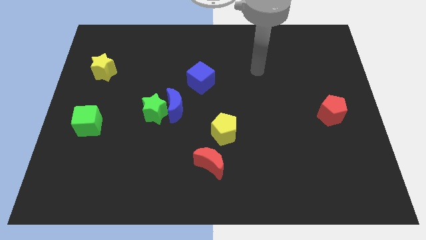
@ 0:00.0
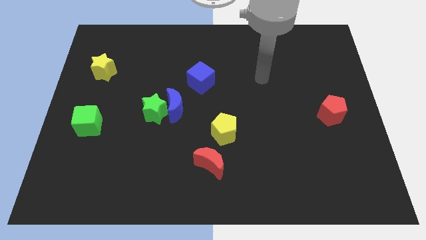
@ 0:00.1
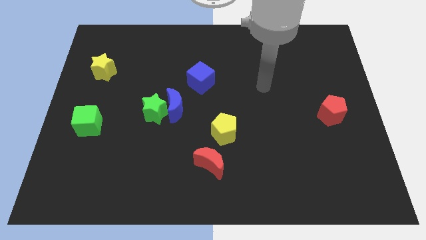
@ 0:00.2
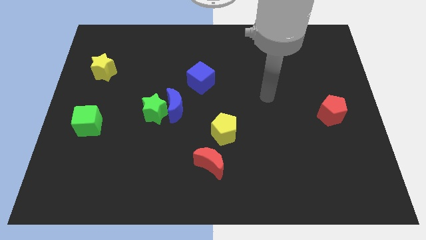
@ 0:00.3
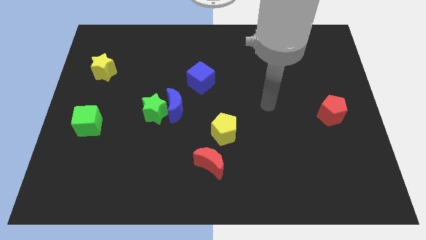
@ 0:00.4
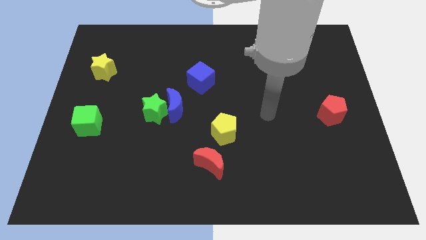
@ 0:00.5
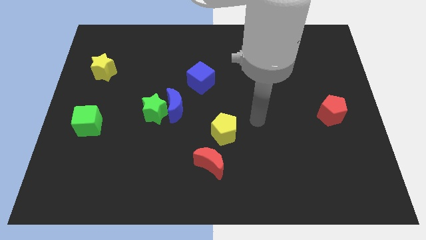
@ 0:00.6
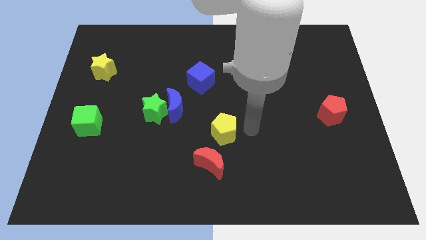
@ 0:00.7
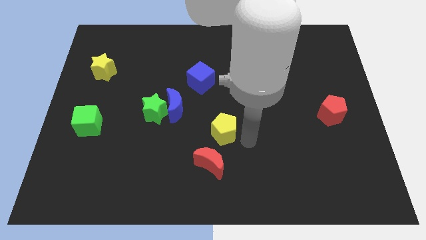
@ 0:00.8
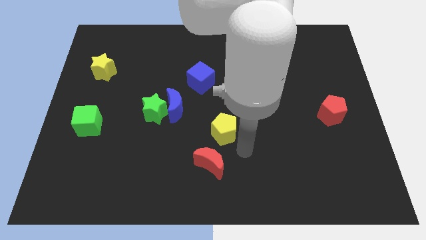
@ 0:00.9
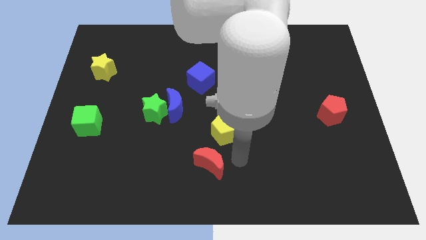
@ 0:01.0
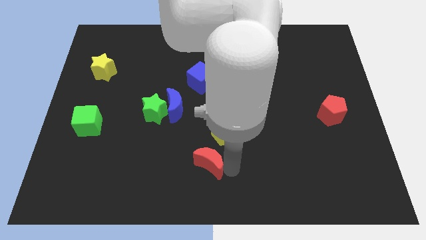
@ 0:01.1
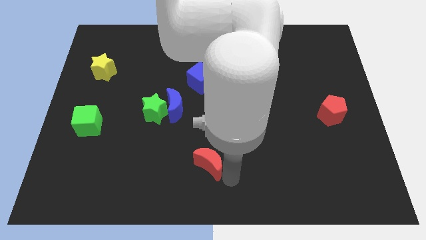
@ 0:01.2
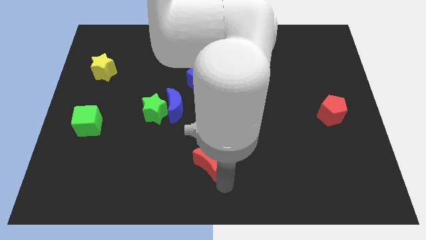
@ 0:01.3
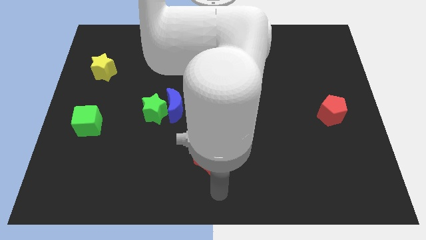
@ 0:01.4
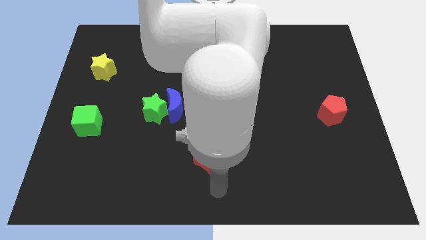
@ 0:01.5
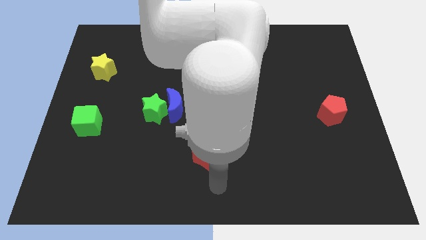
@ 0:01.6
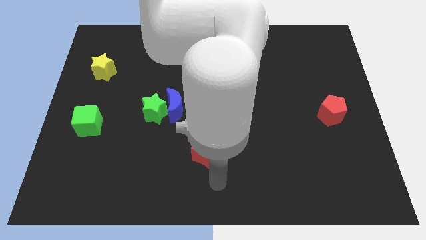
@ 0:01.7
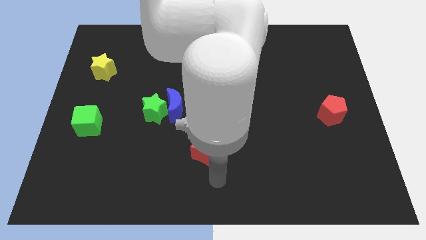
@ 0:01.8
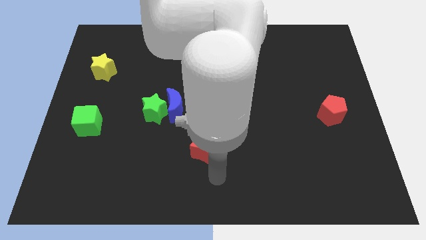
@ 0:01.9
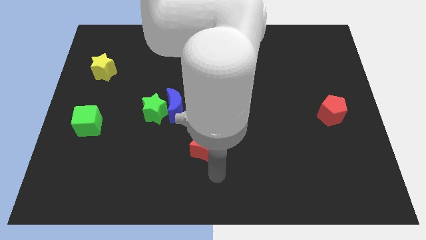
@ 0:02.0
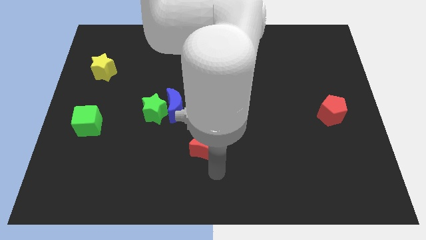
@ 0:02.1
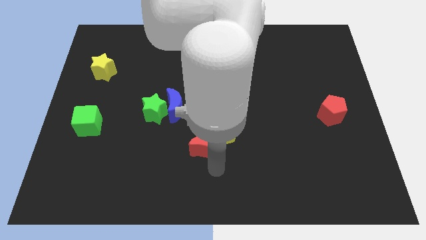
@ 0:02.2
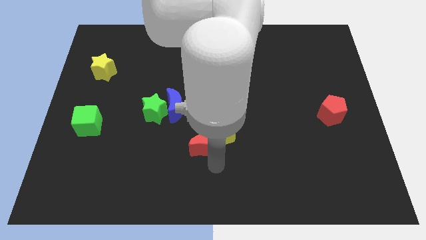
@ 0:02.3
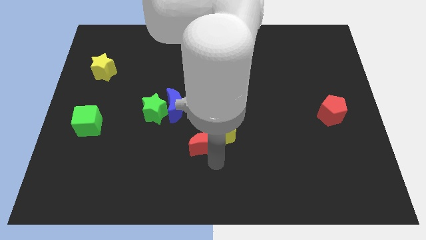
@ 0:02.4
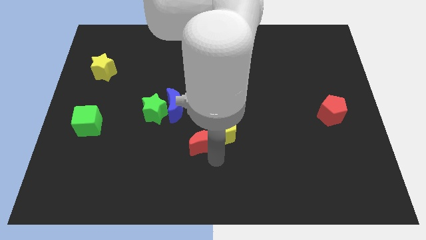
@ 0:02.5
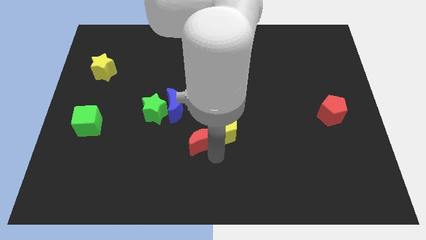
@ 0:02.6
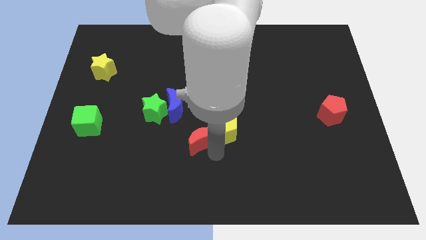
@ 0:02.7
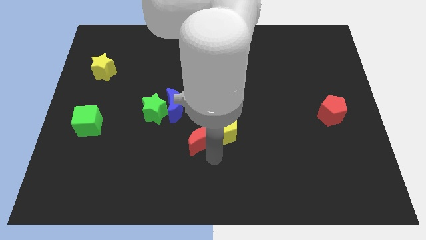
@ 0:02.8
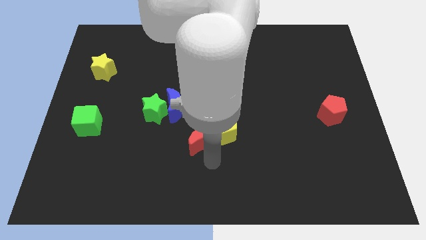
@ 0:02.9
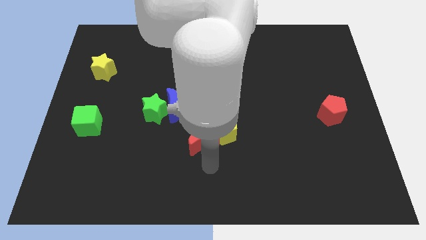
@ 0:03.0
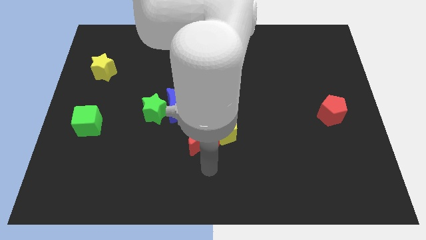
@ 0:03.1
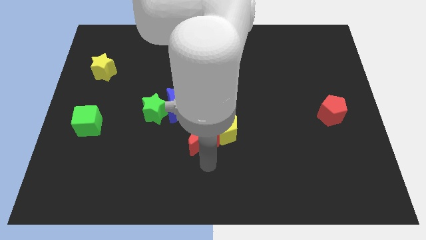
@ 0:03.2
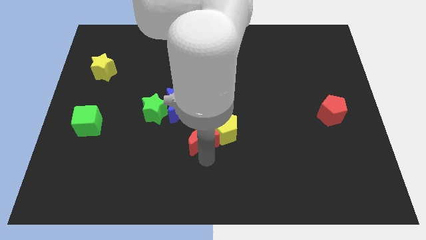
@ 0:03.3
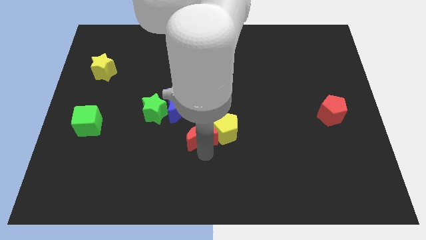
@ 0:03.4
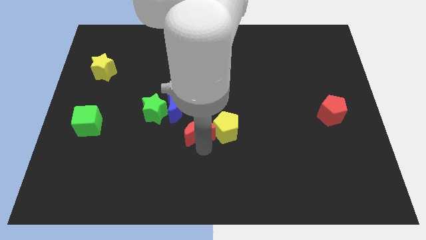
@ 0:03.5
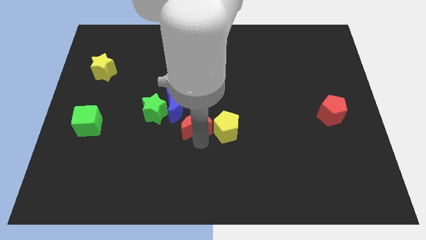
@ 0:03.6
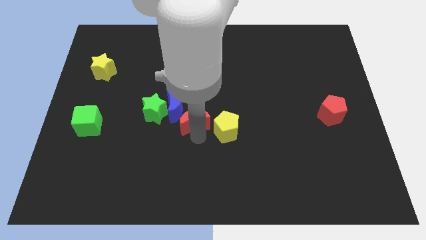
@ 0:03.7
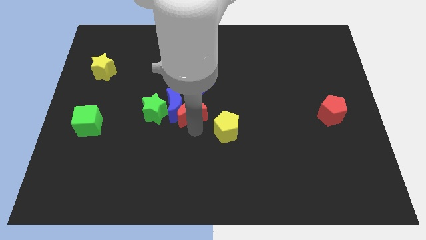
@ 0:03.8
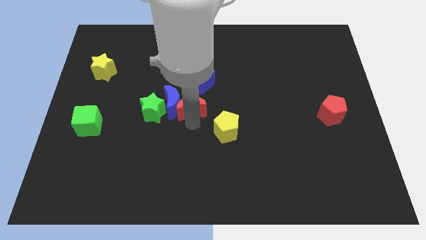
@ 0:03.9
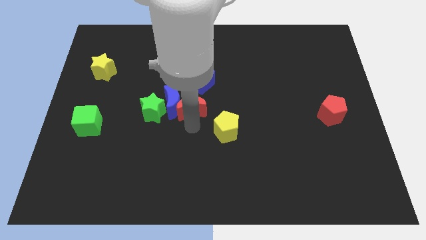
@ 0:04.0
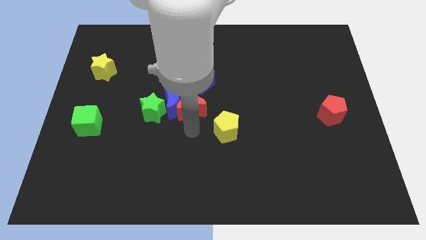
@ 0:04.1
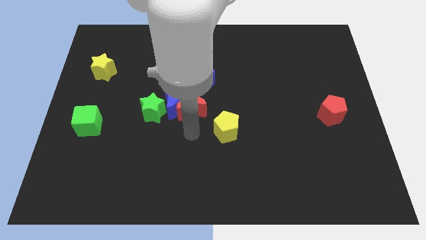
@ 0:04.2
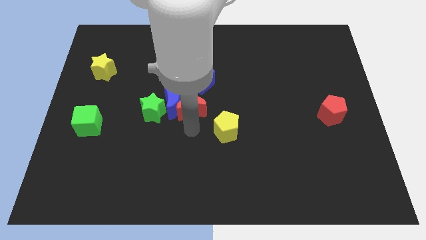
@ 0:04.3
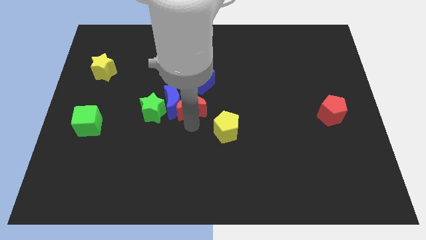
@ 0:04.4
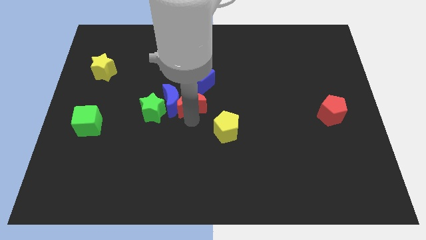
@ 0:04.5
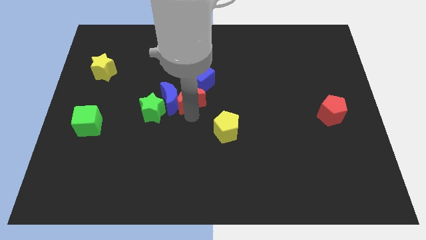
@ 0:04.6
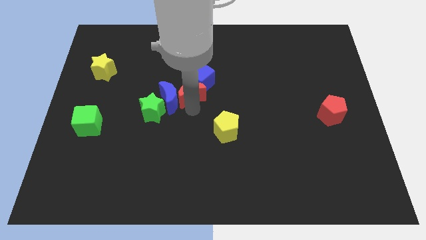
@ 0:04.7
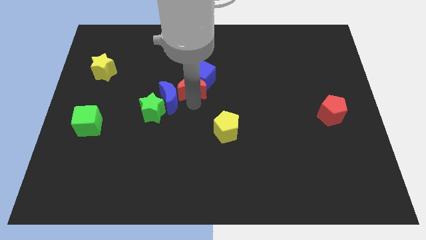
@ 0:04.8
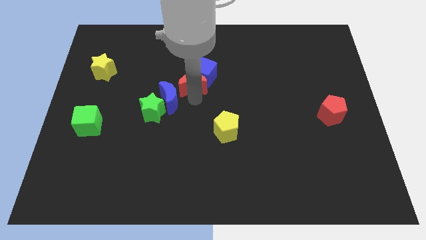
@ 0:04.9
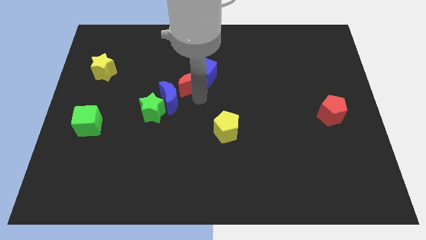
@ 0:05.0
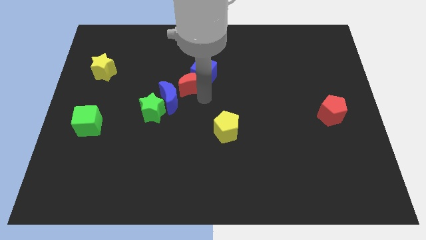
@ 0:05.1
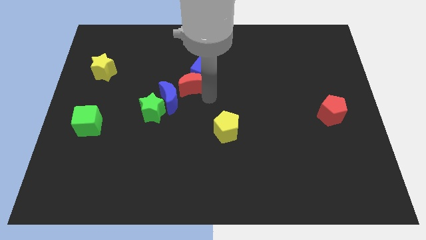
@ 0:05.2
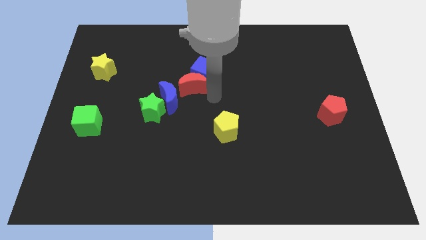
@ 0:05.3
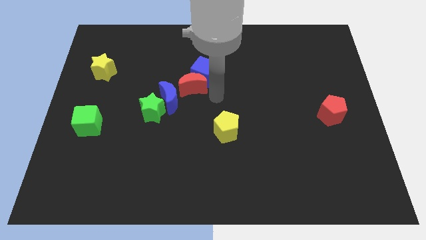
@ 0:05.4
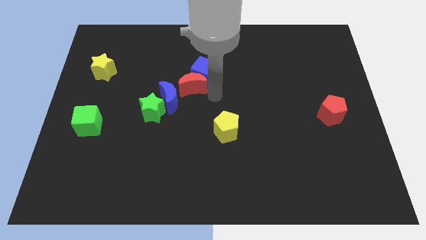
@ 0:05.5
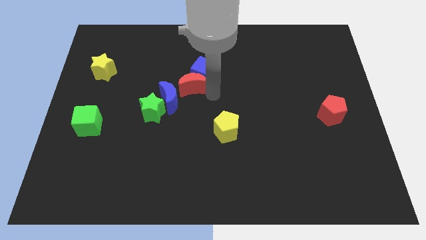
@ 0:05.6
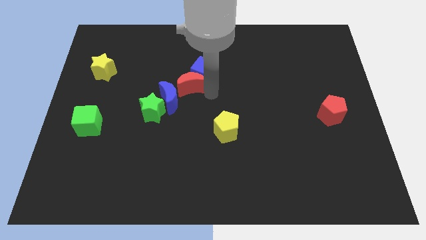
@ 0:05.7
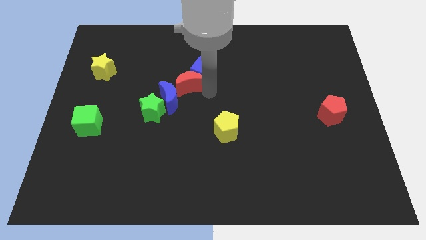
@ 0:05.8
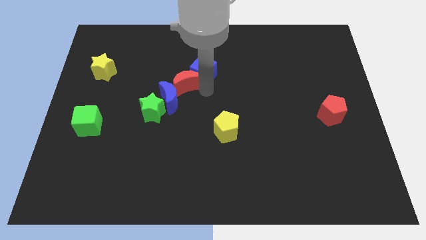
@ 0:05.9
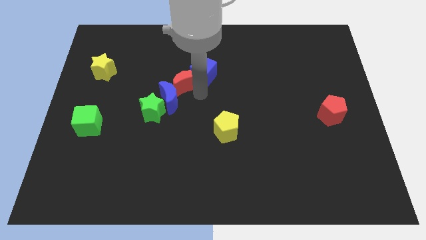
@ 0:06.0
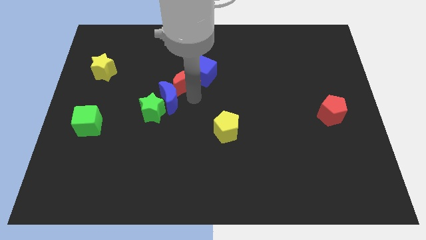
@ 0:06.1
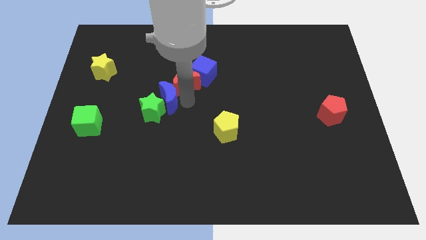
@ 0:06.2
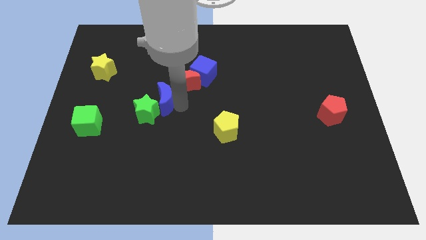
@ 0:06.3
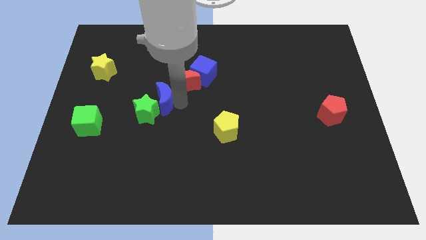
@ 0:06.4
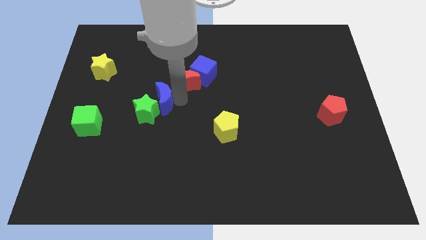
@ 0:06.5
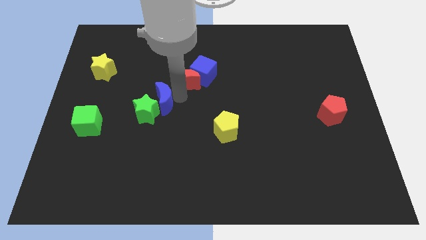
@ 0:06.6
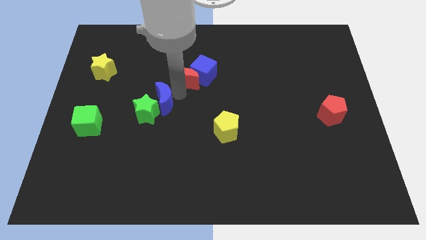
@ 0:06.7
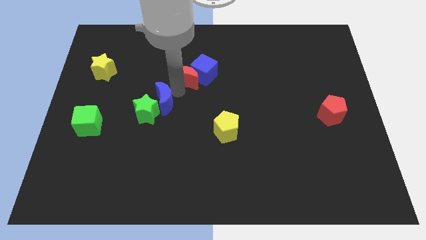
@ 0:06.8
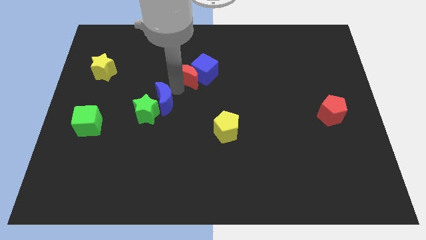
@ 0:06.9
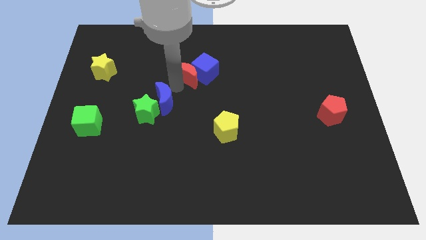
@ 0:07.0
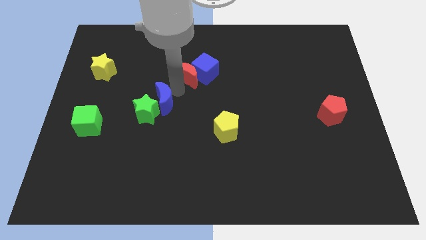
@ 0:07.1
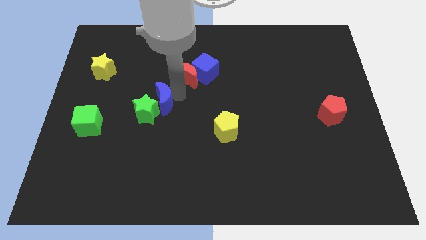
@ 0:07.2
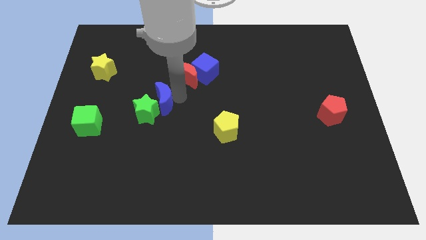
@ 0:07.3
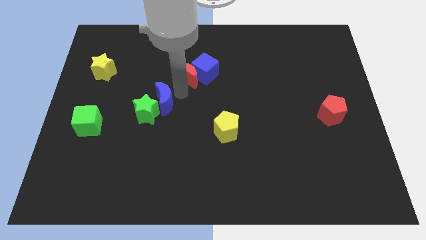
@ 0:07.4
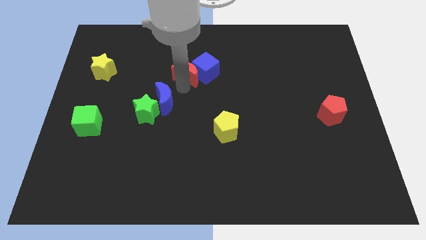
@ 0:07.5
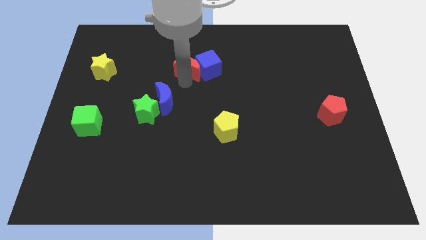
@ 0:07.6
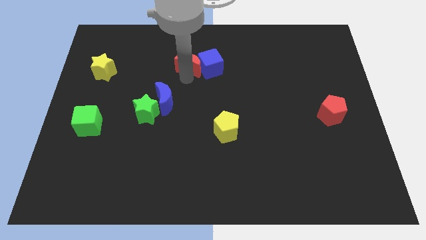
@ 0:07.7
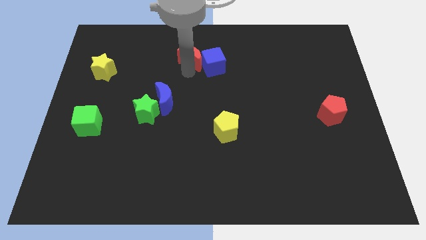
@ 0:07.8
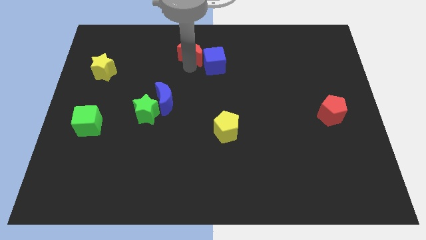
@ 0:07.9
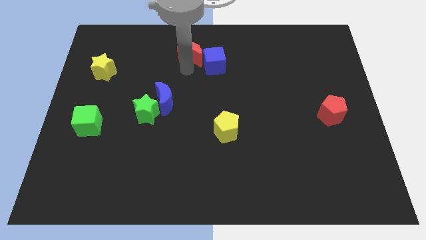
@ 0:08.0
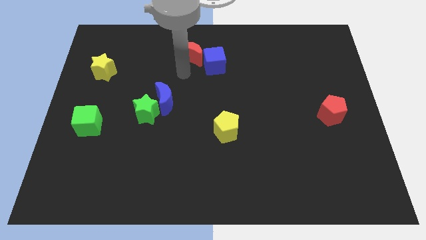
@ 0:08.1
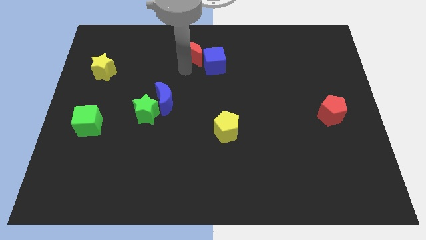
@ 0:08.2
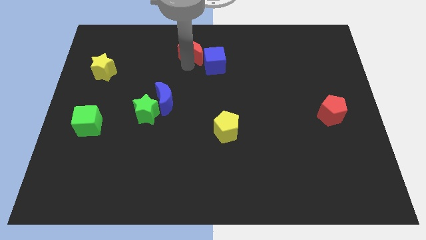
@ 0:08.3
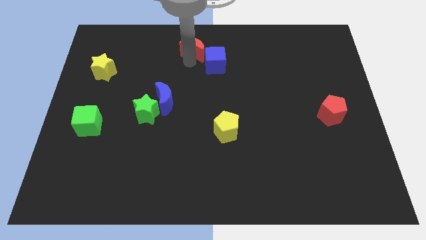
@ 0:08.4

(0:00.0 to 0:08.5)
move the red moon to the towards your base
